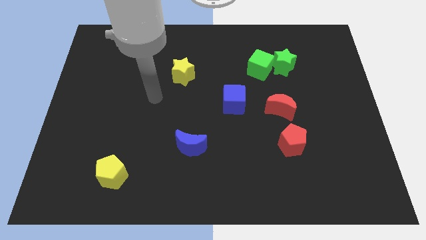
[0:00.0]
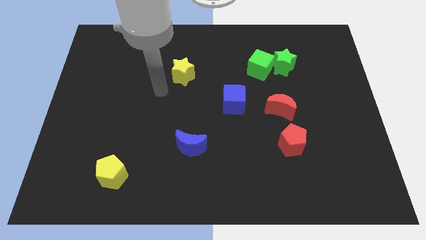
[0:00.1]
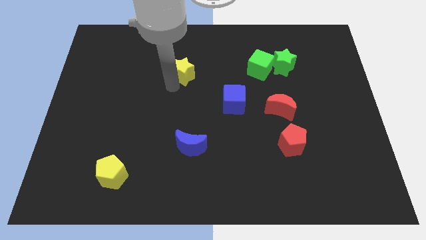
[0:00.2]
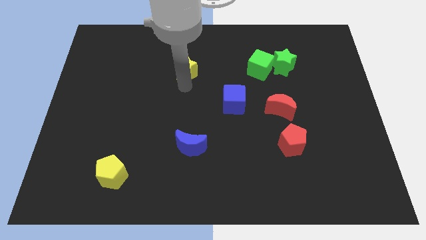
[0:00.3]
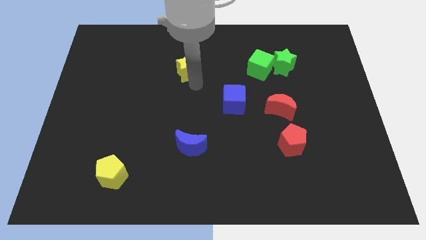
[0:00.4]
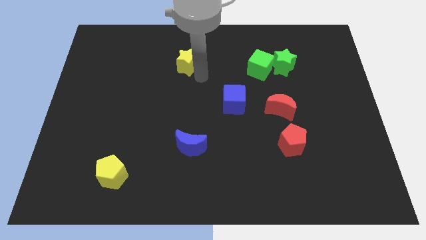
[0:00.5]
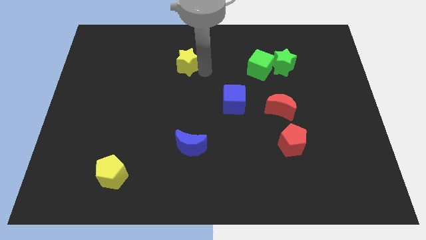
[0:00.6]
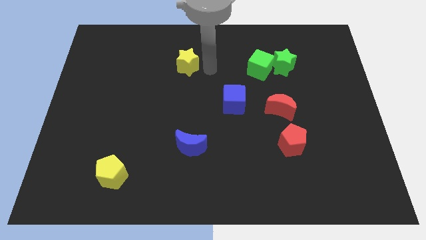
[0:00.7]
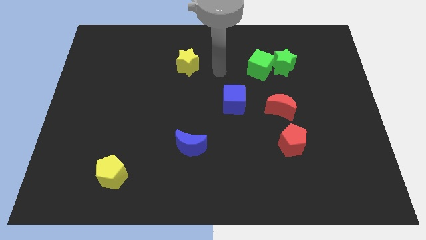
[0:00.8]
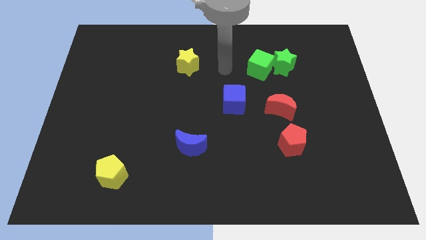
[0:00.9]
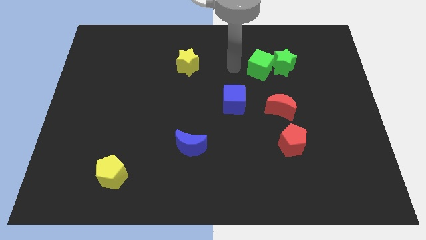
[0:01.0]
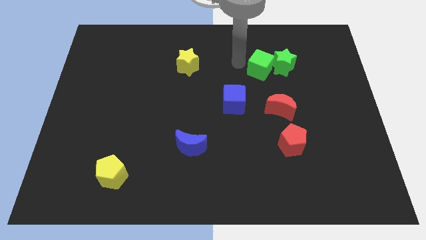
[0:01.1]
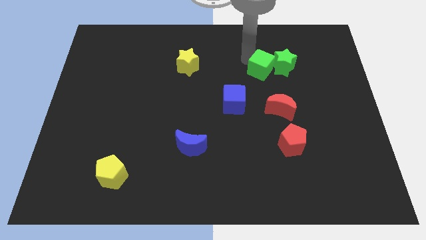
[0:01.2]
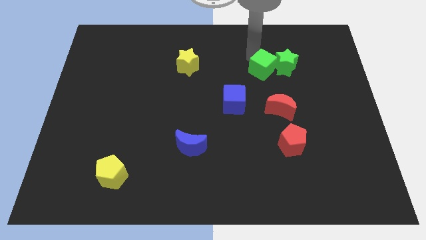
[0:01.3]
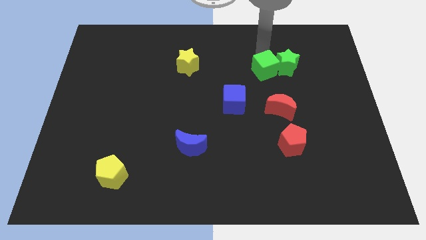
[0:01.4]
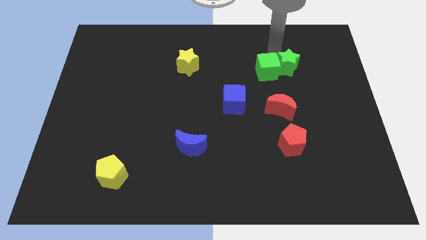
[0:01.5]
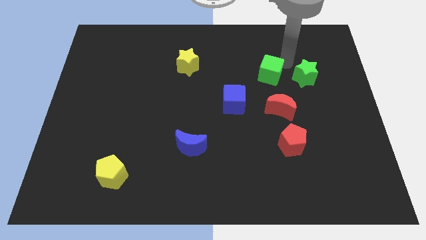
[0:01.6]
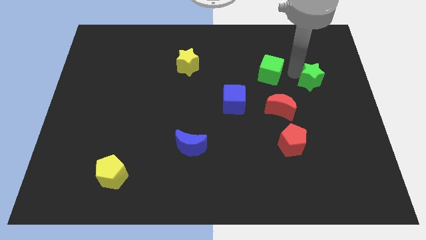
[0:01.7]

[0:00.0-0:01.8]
pull the green cube apart from the green star

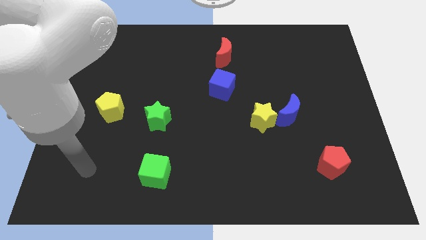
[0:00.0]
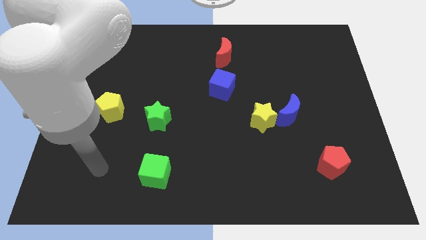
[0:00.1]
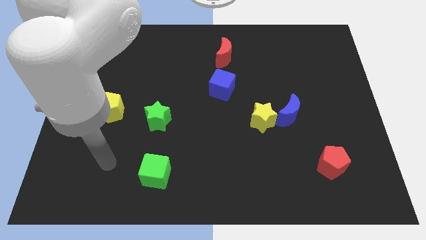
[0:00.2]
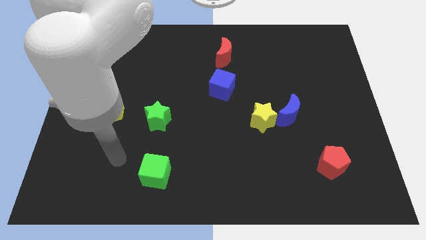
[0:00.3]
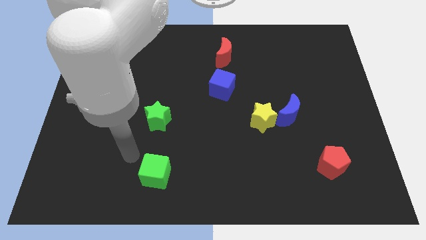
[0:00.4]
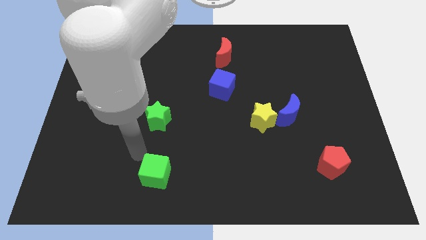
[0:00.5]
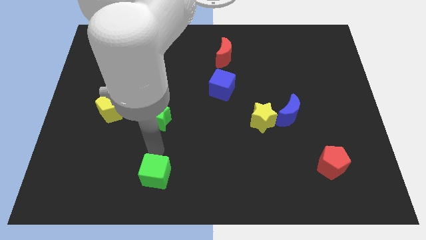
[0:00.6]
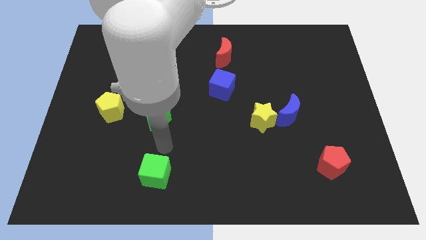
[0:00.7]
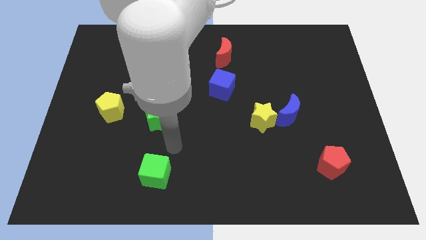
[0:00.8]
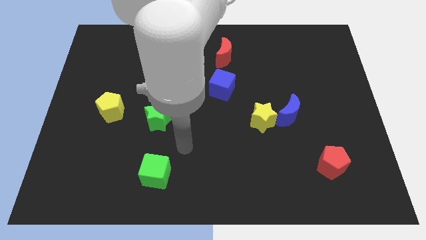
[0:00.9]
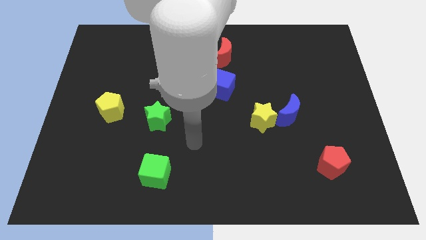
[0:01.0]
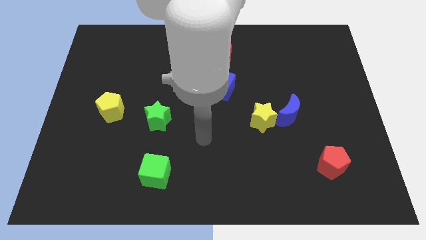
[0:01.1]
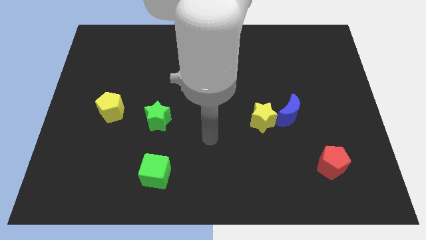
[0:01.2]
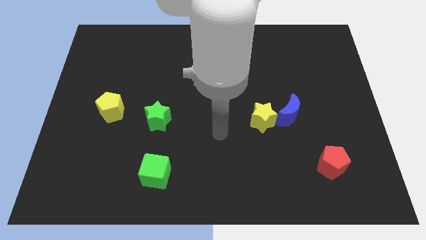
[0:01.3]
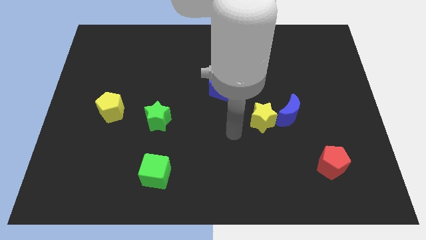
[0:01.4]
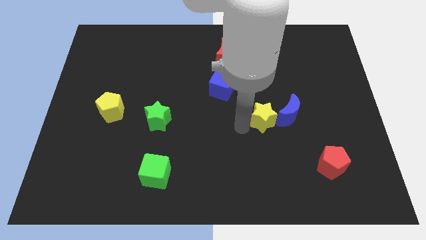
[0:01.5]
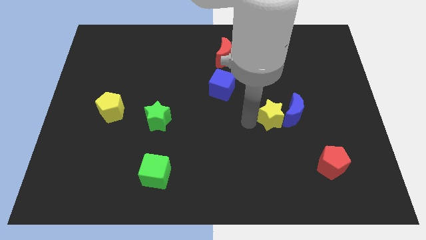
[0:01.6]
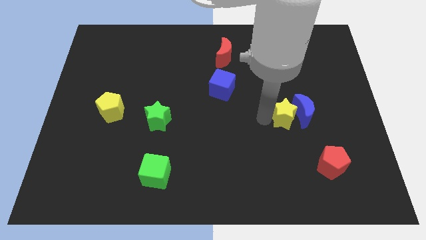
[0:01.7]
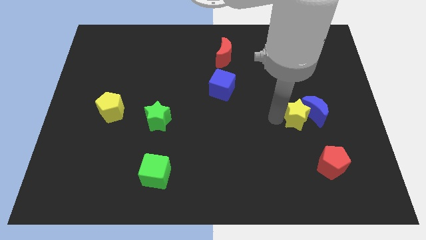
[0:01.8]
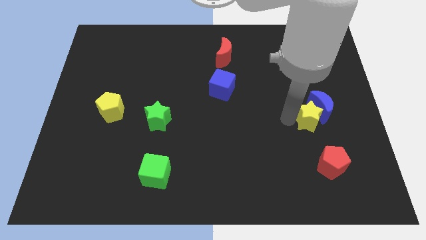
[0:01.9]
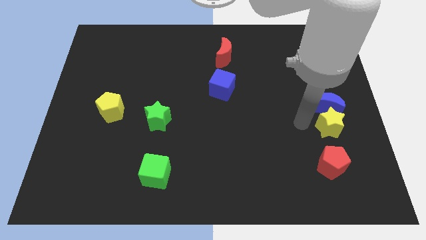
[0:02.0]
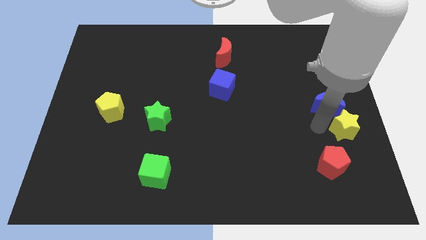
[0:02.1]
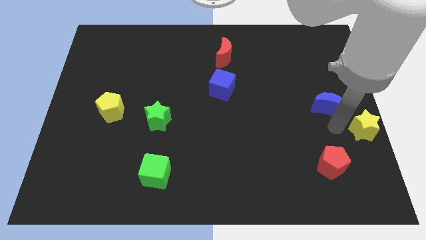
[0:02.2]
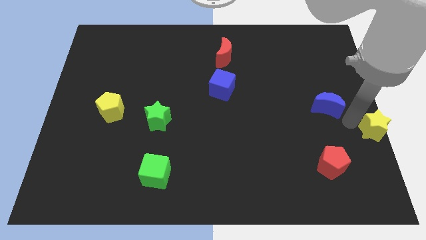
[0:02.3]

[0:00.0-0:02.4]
separate the blue moon from the yellow star

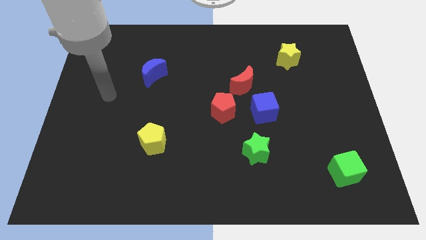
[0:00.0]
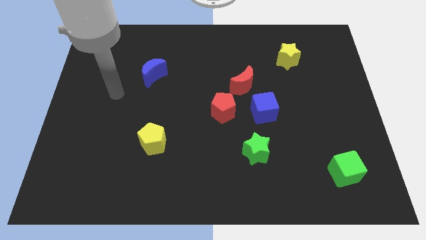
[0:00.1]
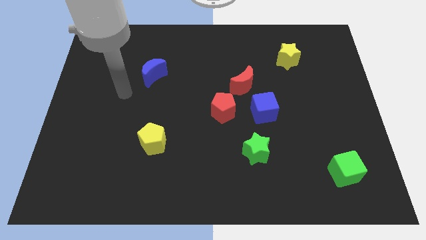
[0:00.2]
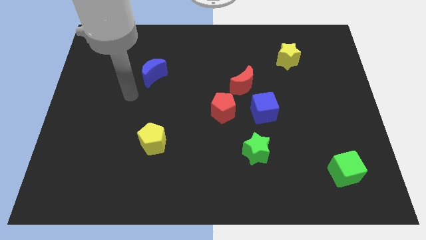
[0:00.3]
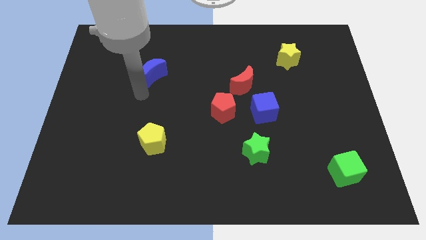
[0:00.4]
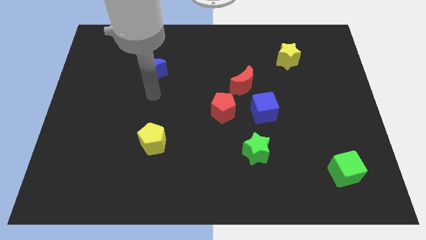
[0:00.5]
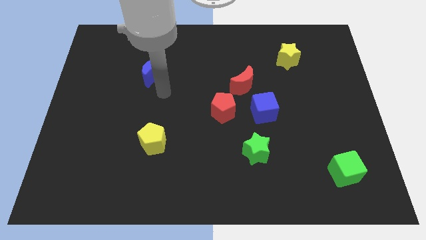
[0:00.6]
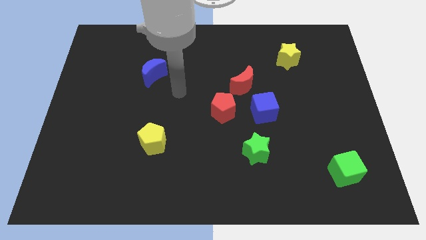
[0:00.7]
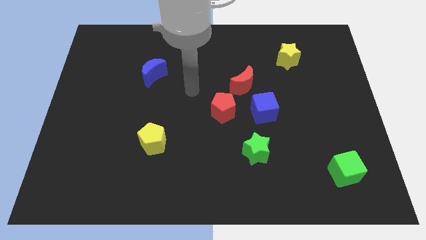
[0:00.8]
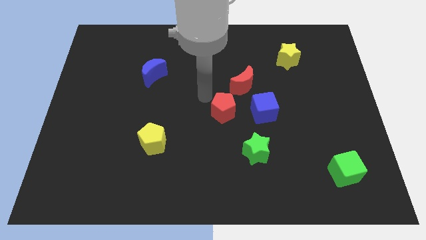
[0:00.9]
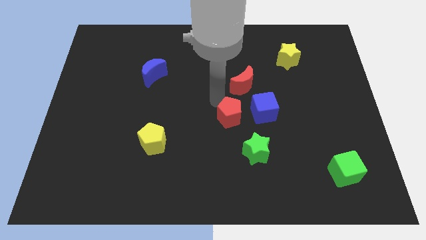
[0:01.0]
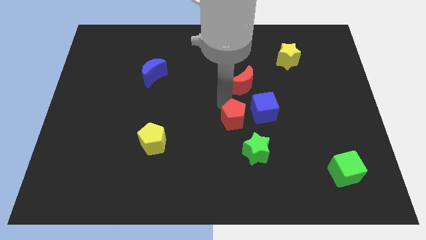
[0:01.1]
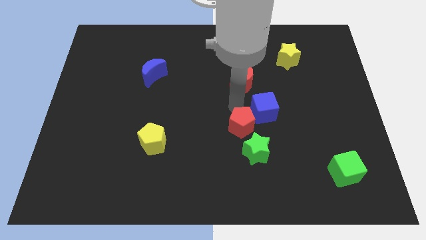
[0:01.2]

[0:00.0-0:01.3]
pull the red moon apart from the blue cube and red pentagon

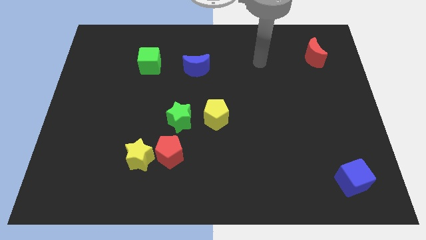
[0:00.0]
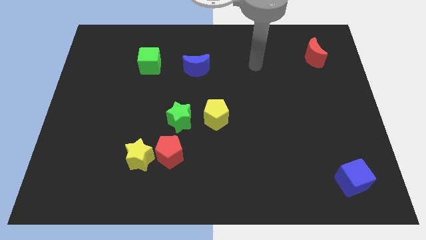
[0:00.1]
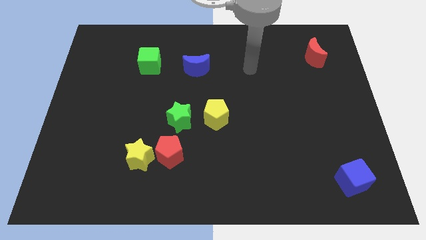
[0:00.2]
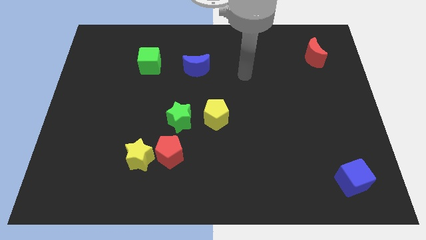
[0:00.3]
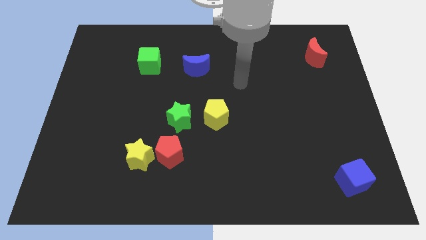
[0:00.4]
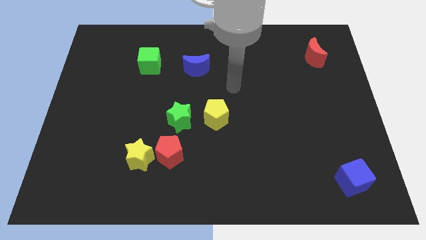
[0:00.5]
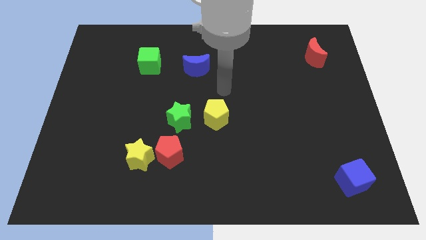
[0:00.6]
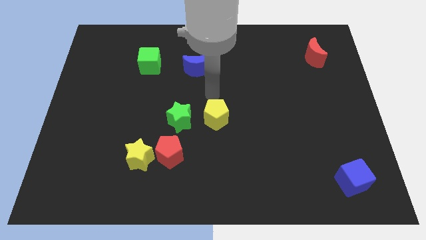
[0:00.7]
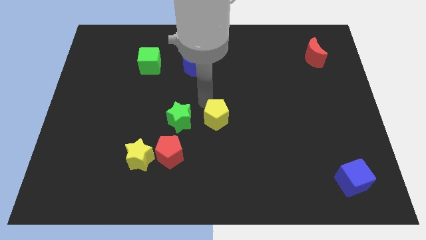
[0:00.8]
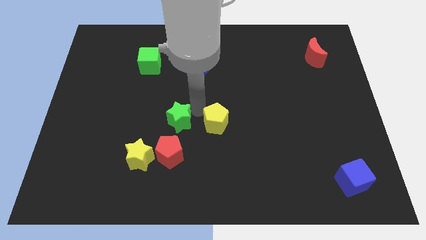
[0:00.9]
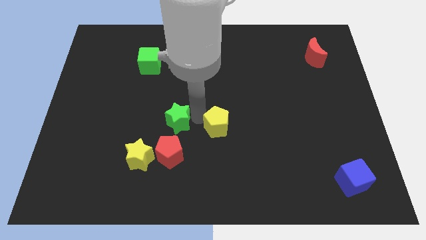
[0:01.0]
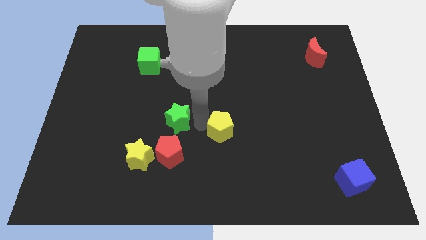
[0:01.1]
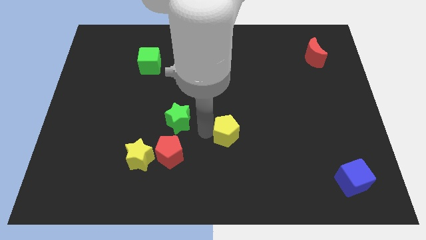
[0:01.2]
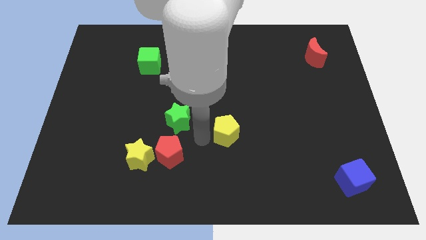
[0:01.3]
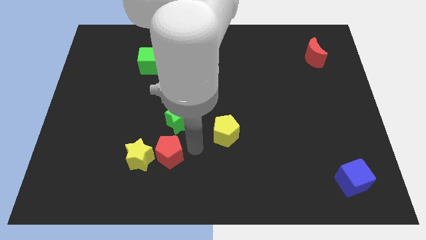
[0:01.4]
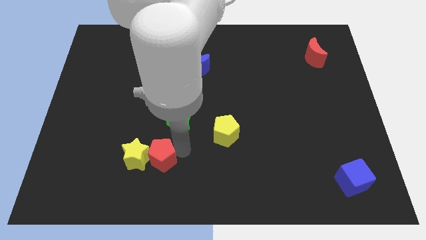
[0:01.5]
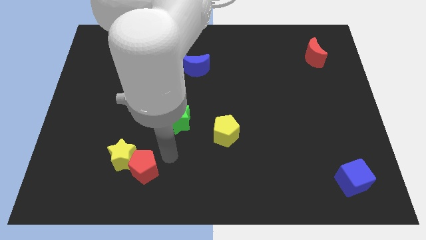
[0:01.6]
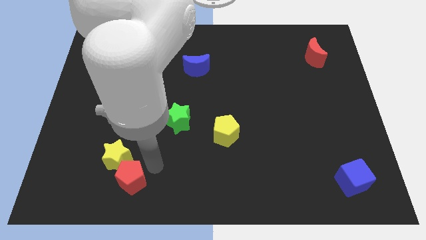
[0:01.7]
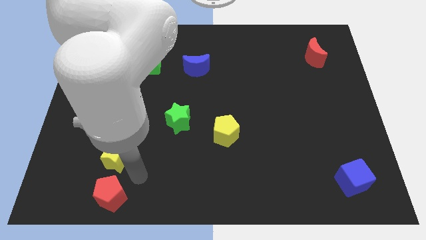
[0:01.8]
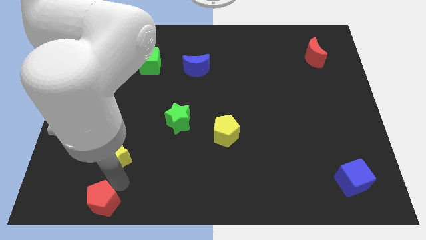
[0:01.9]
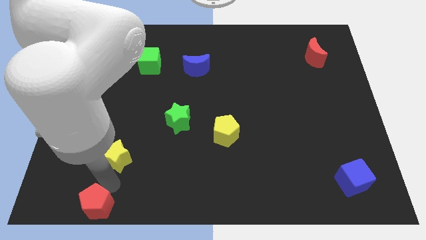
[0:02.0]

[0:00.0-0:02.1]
move the yellow star away from the red pentagon

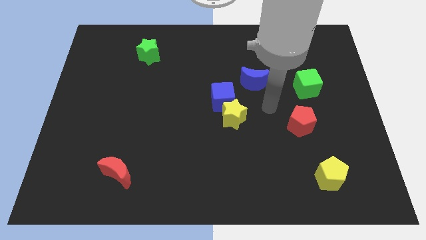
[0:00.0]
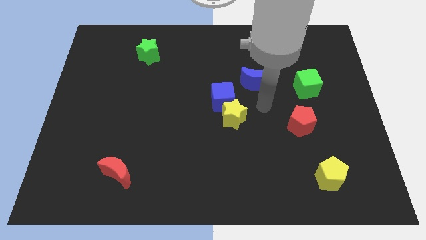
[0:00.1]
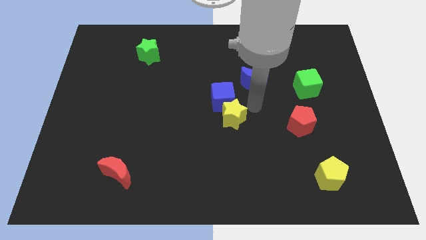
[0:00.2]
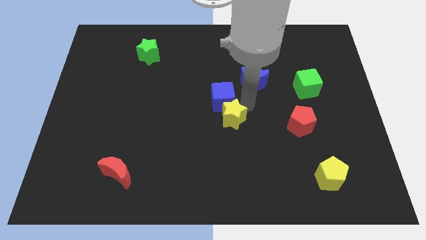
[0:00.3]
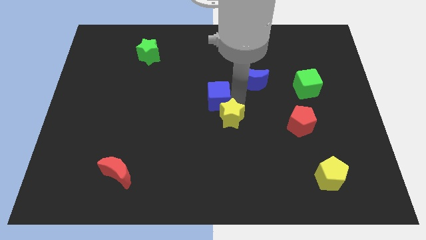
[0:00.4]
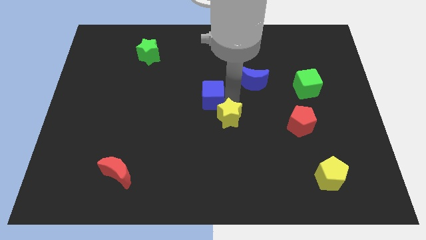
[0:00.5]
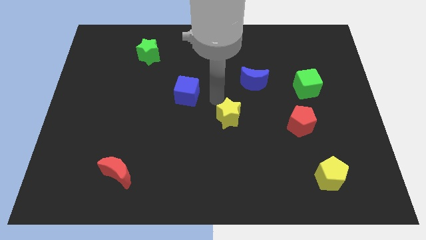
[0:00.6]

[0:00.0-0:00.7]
pull the yellow star apart from the blue cube

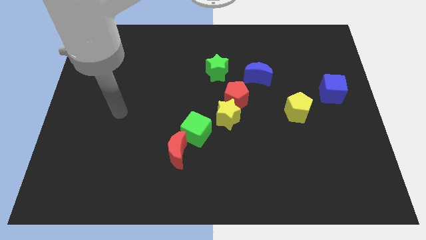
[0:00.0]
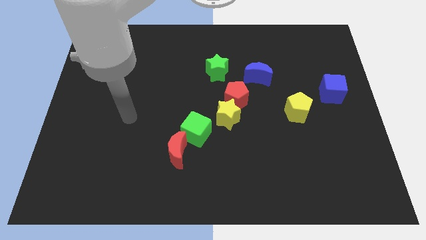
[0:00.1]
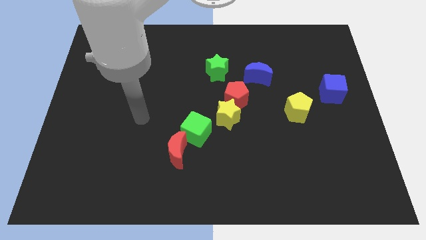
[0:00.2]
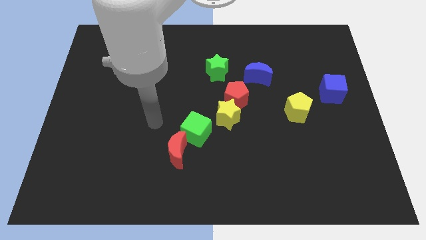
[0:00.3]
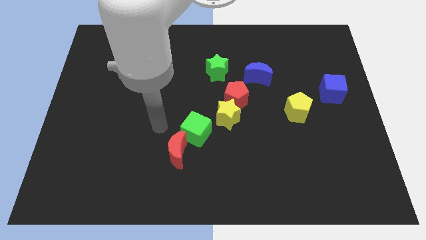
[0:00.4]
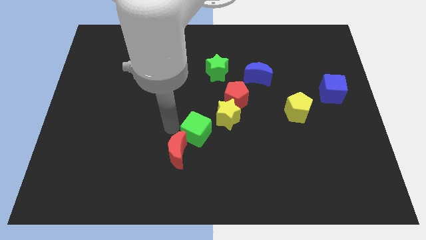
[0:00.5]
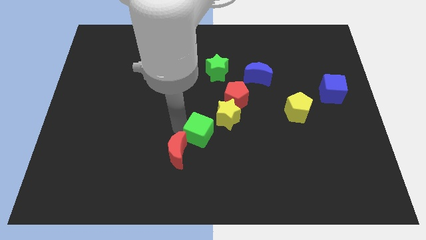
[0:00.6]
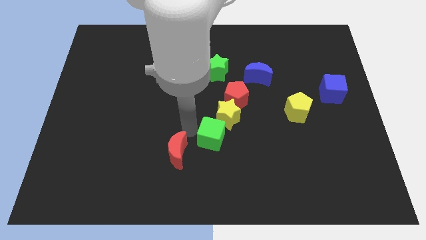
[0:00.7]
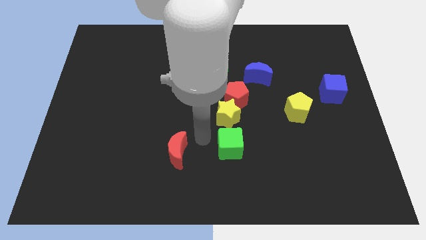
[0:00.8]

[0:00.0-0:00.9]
pull the red moon apart from the green cube
